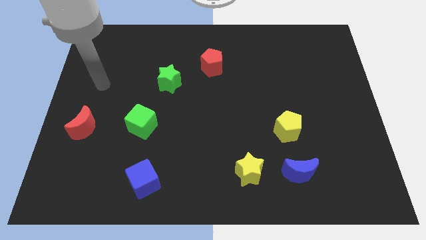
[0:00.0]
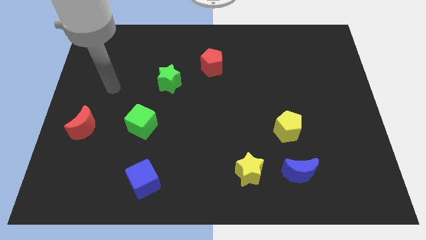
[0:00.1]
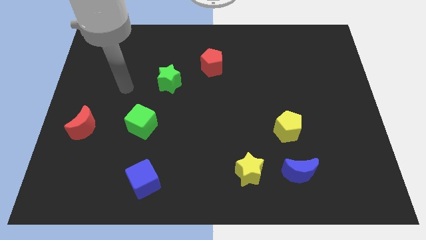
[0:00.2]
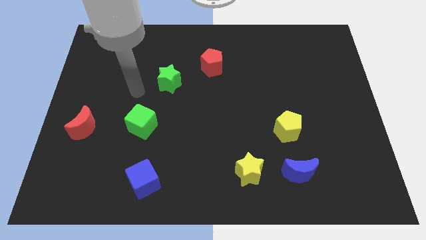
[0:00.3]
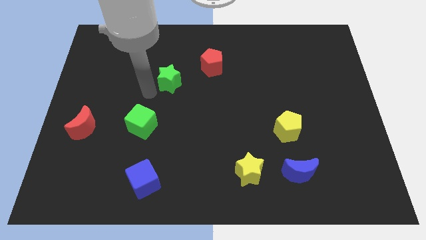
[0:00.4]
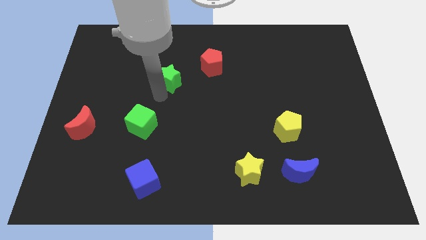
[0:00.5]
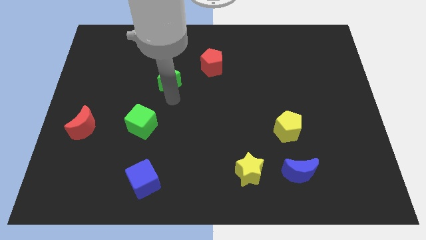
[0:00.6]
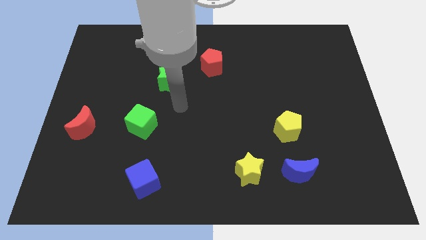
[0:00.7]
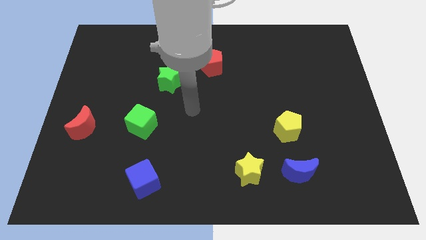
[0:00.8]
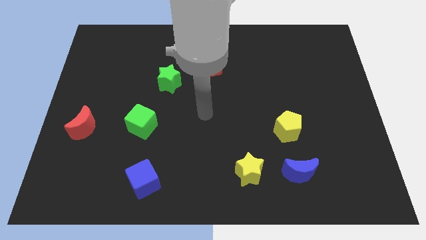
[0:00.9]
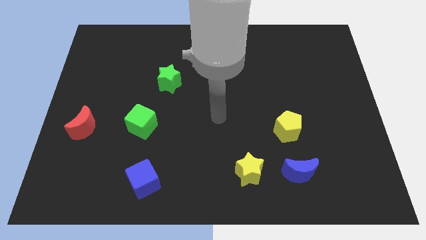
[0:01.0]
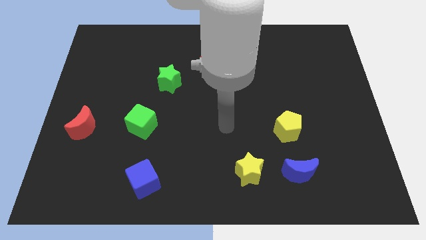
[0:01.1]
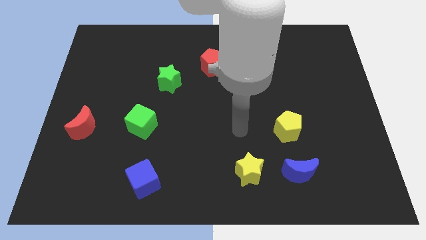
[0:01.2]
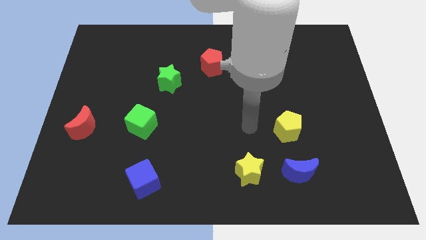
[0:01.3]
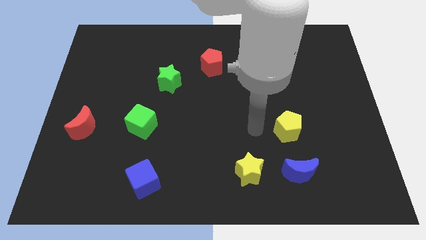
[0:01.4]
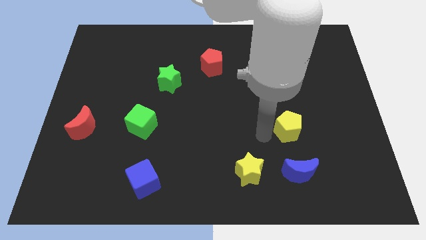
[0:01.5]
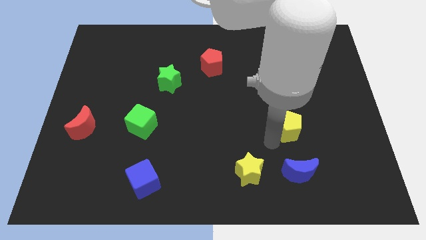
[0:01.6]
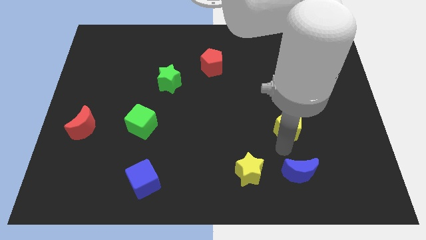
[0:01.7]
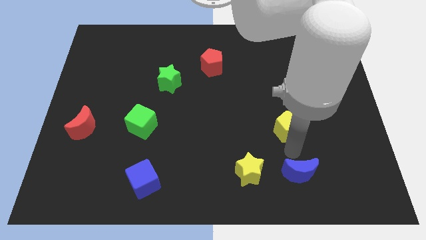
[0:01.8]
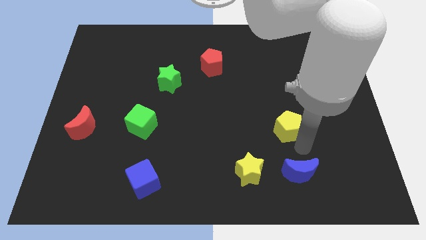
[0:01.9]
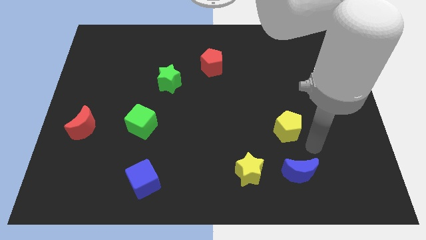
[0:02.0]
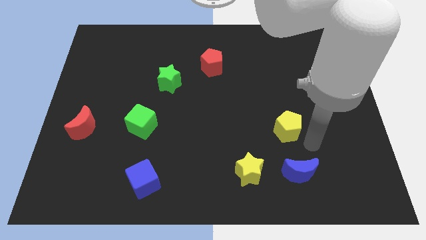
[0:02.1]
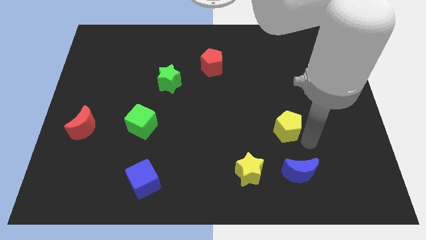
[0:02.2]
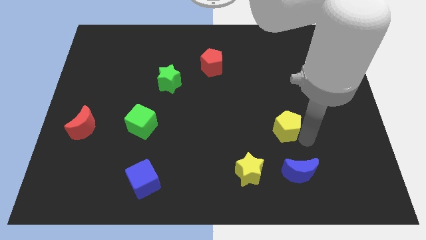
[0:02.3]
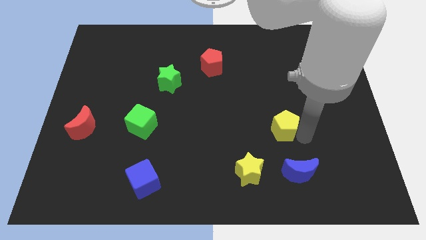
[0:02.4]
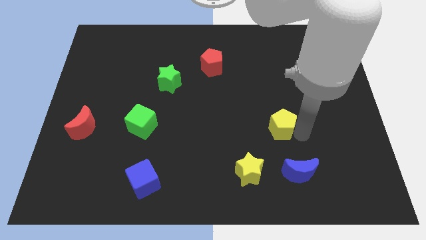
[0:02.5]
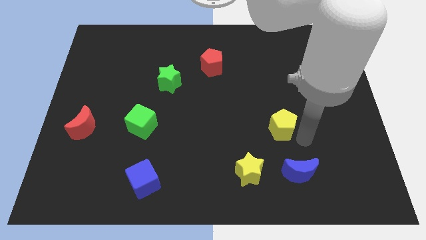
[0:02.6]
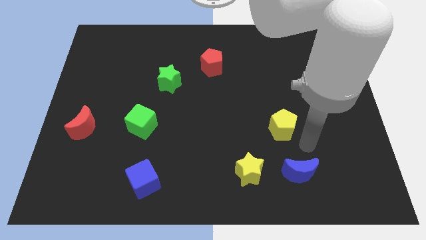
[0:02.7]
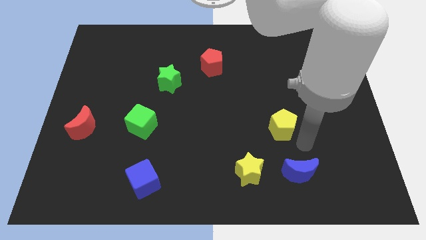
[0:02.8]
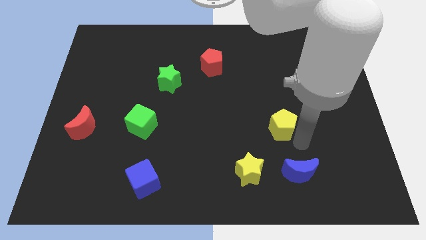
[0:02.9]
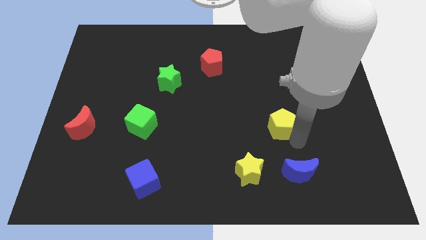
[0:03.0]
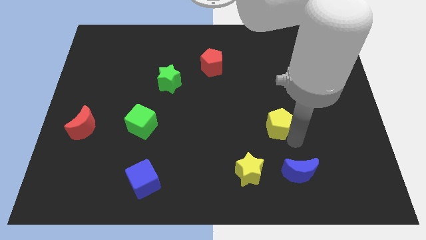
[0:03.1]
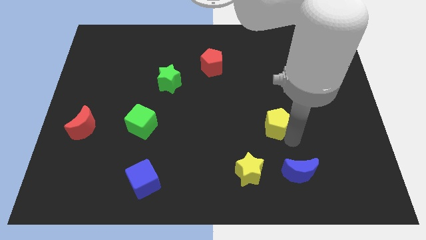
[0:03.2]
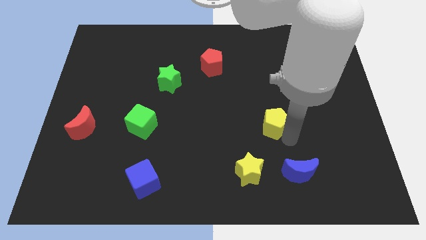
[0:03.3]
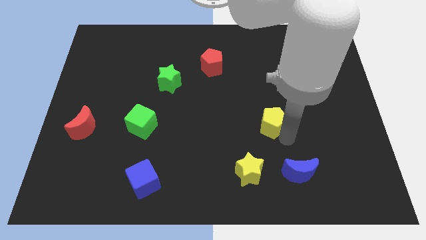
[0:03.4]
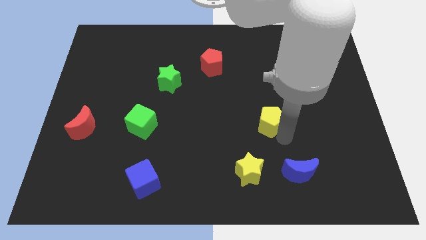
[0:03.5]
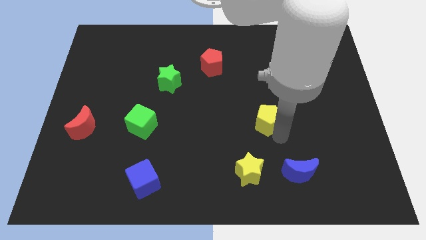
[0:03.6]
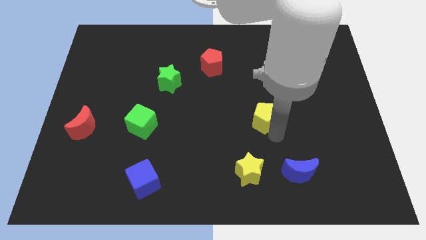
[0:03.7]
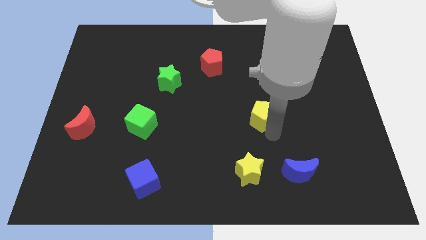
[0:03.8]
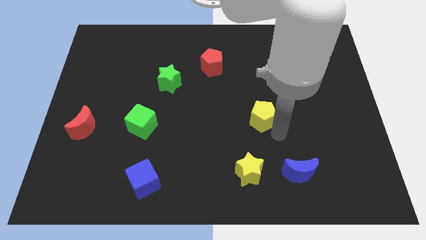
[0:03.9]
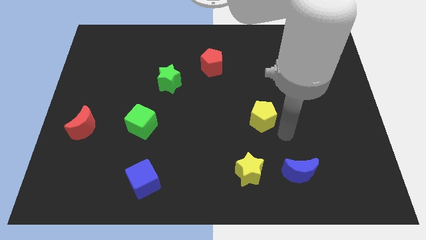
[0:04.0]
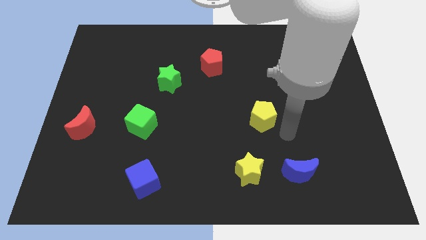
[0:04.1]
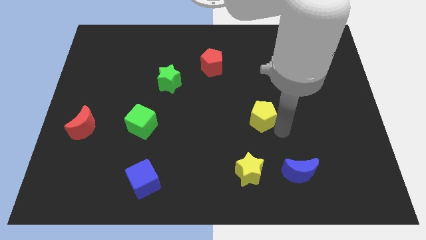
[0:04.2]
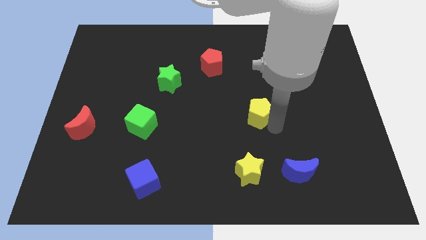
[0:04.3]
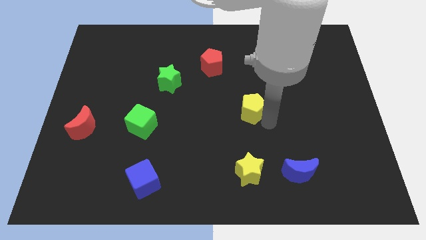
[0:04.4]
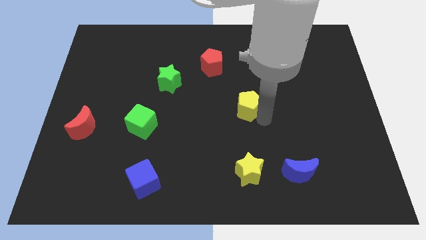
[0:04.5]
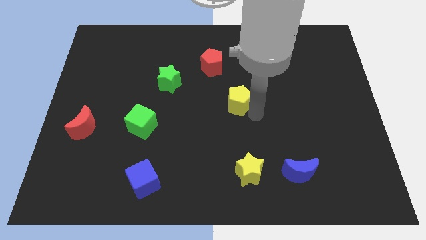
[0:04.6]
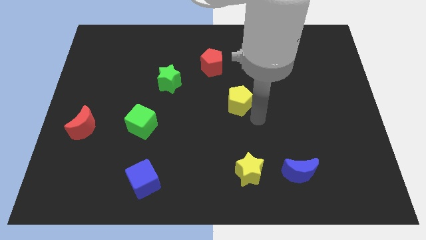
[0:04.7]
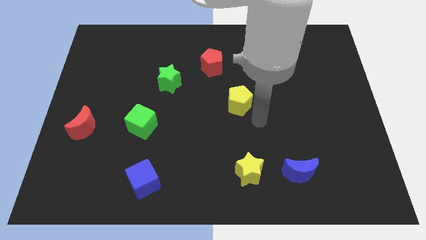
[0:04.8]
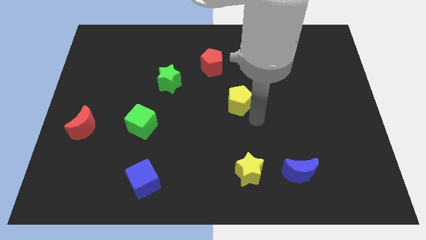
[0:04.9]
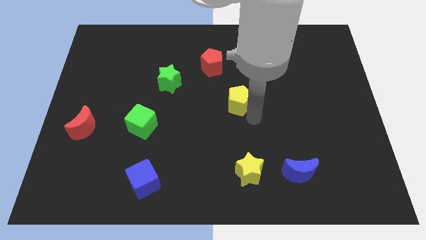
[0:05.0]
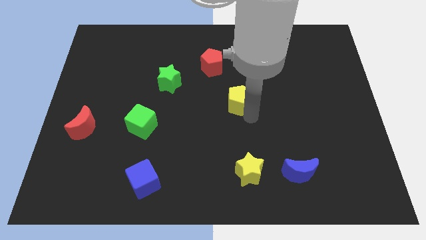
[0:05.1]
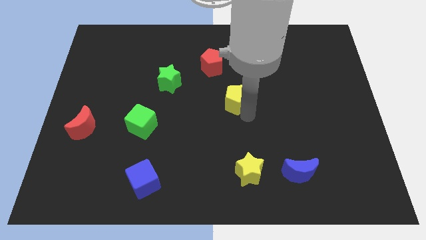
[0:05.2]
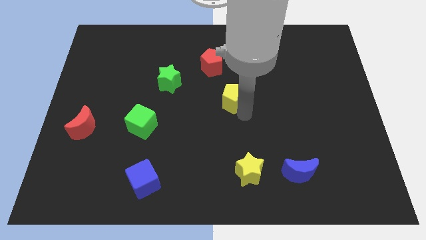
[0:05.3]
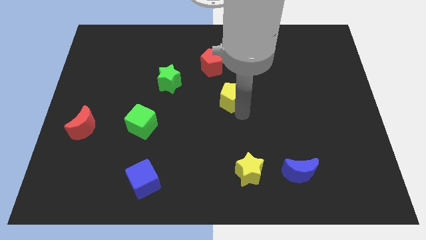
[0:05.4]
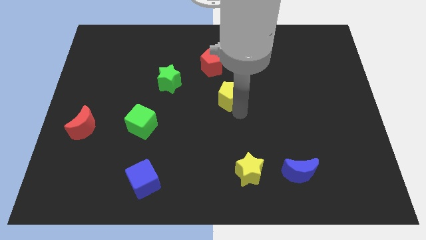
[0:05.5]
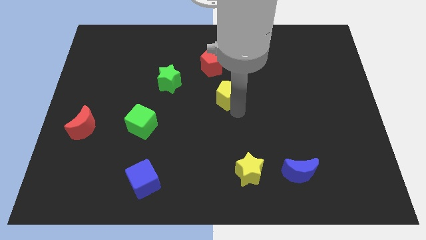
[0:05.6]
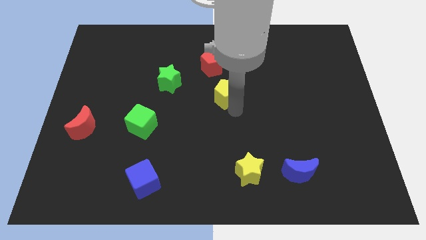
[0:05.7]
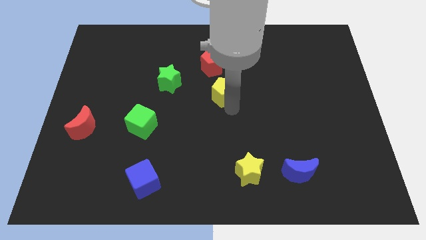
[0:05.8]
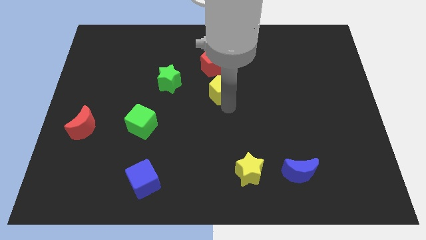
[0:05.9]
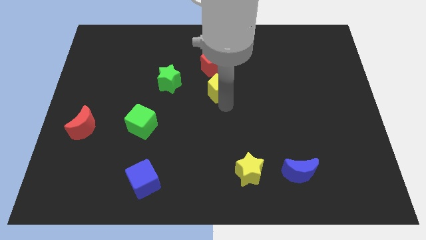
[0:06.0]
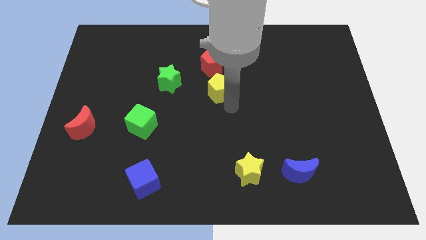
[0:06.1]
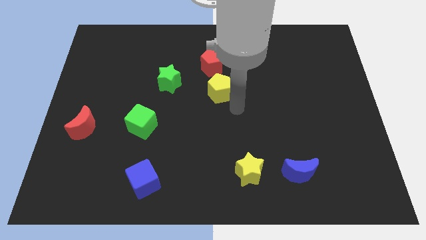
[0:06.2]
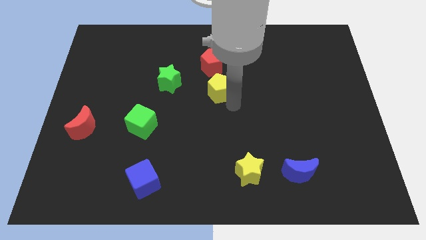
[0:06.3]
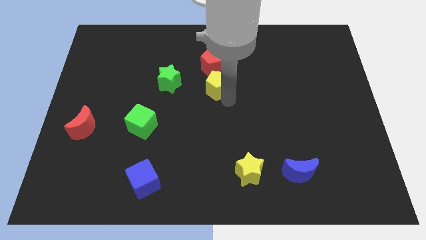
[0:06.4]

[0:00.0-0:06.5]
move the yellow pentagon up and then left

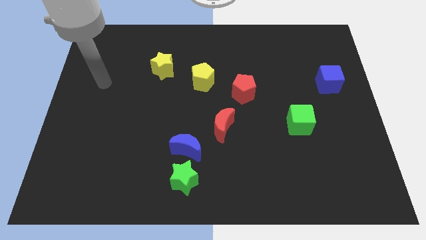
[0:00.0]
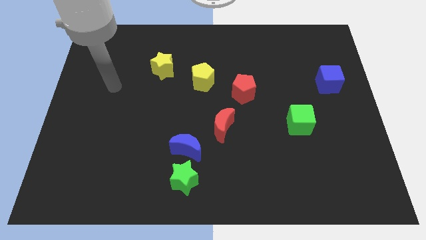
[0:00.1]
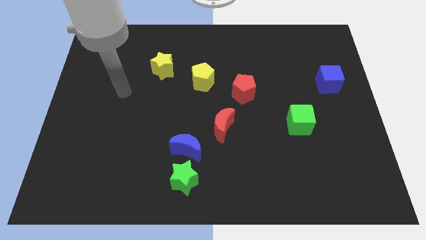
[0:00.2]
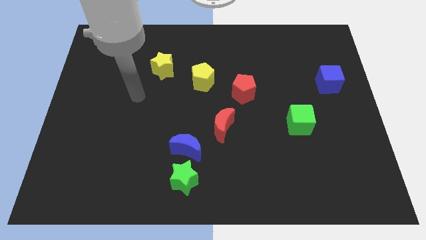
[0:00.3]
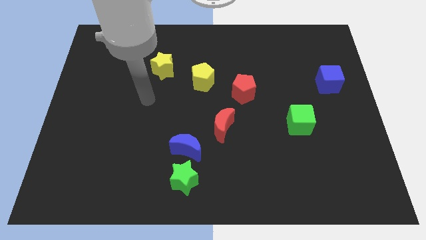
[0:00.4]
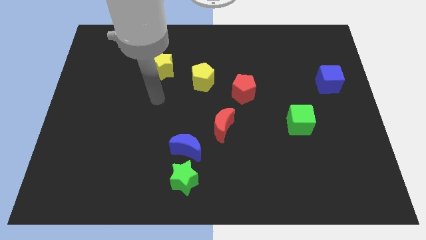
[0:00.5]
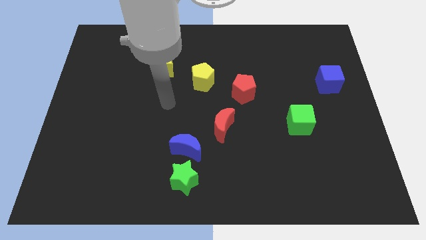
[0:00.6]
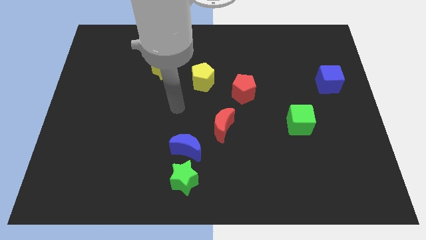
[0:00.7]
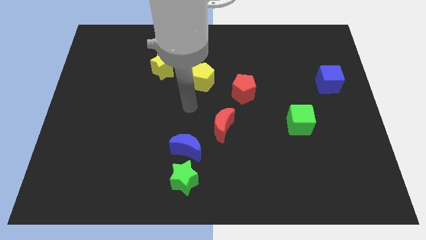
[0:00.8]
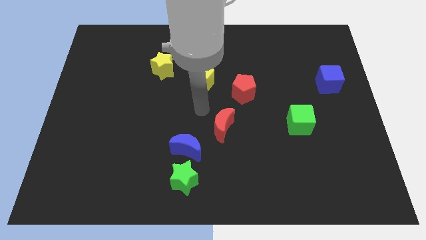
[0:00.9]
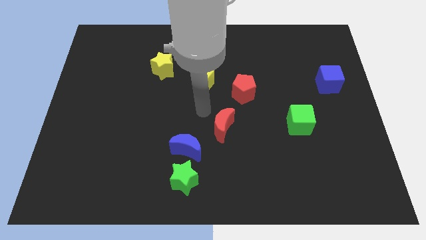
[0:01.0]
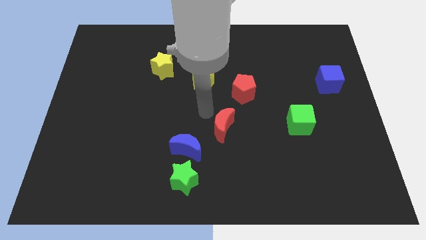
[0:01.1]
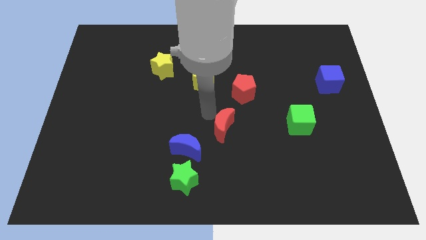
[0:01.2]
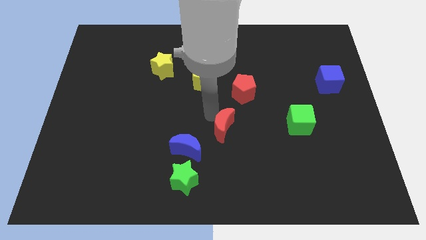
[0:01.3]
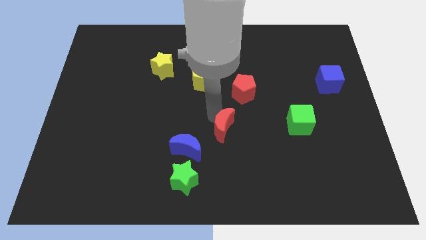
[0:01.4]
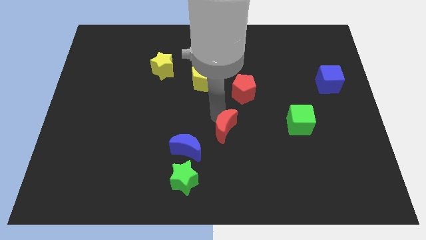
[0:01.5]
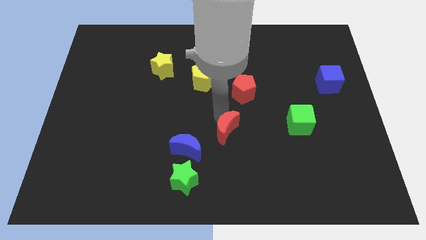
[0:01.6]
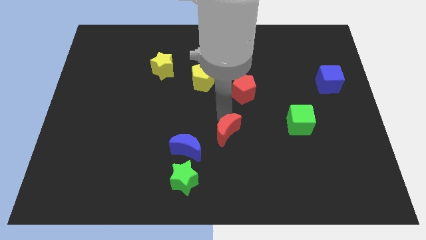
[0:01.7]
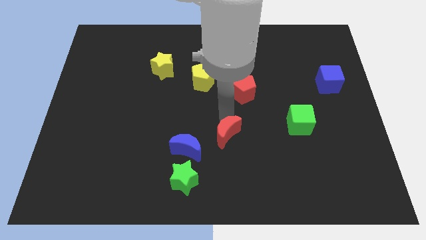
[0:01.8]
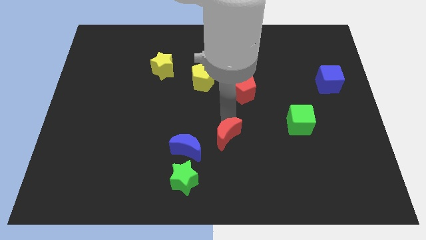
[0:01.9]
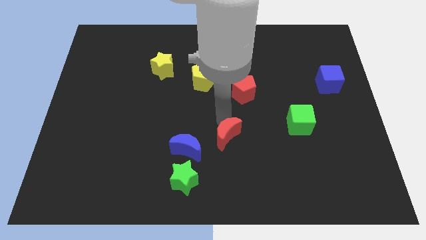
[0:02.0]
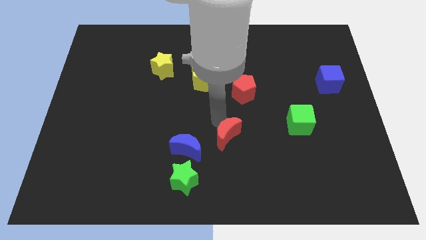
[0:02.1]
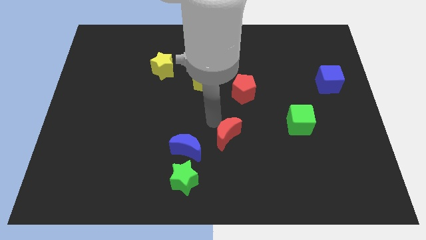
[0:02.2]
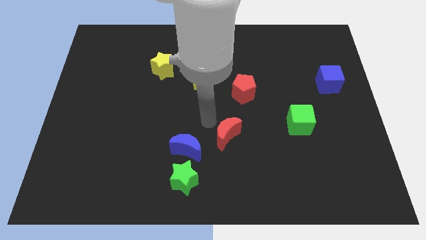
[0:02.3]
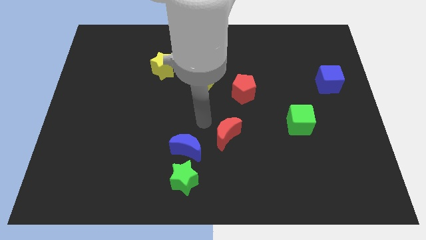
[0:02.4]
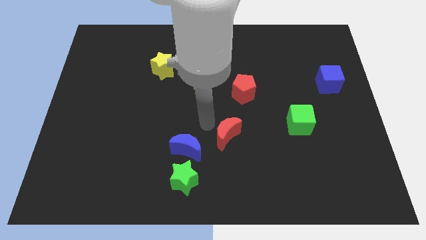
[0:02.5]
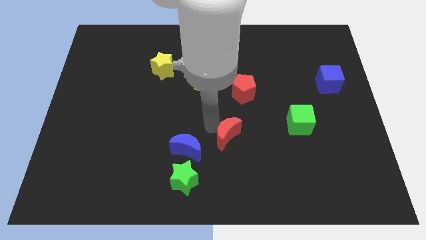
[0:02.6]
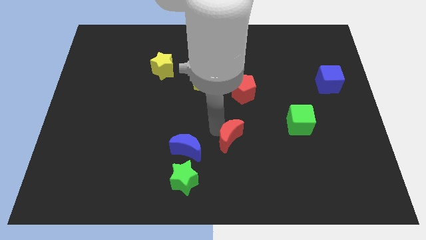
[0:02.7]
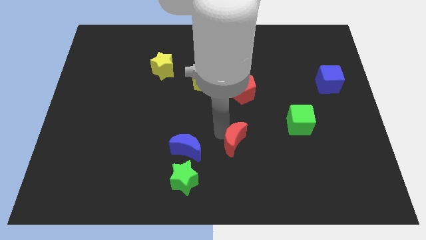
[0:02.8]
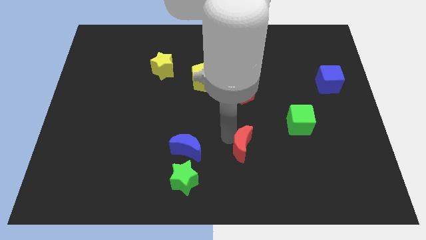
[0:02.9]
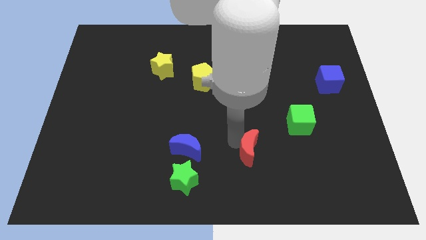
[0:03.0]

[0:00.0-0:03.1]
move the red moon a bit diagonally downwards and right
